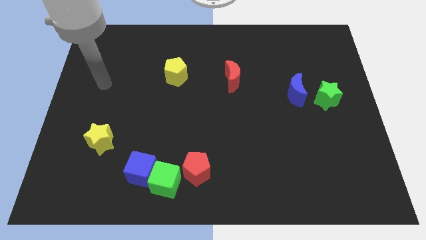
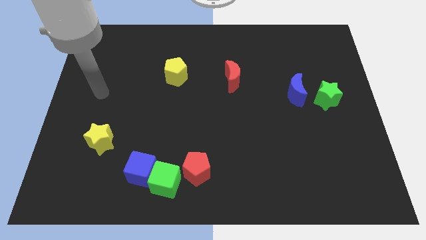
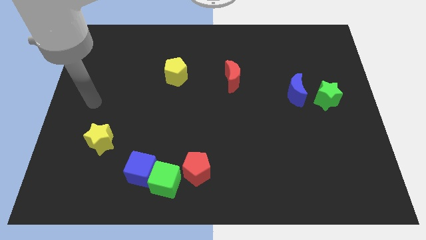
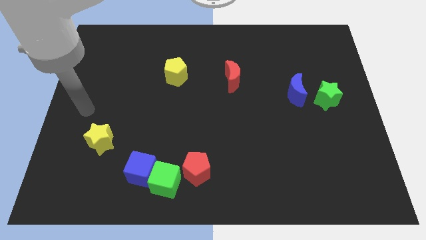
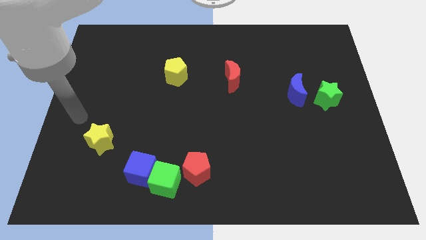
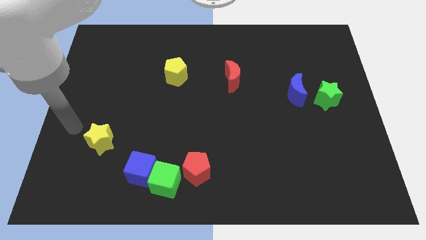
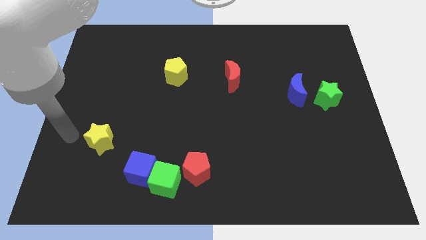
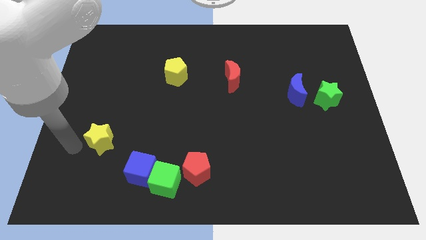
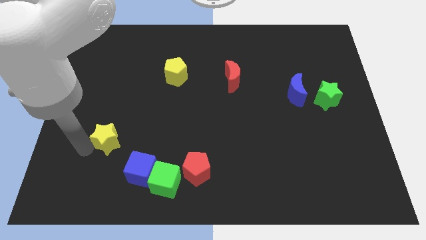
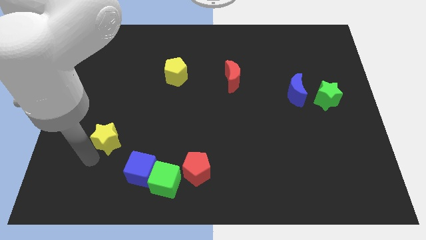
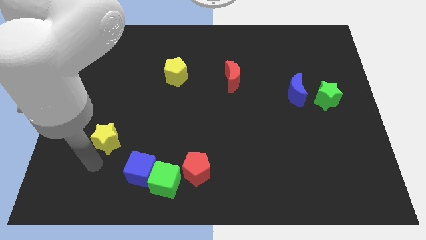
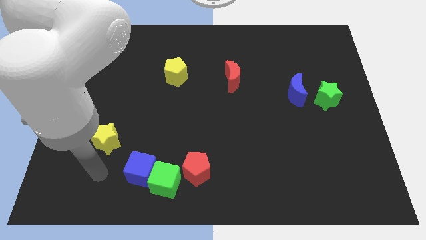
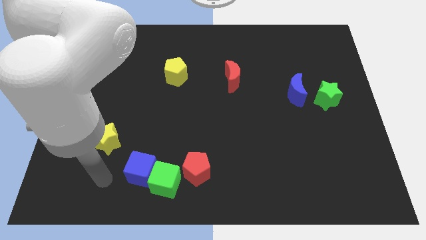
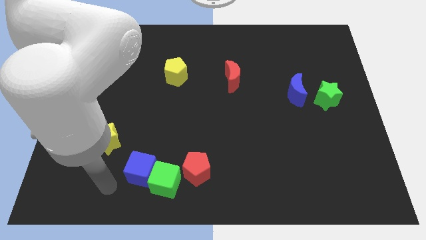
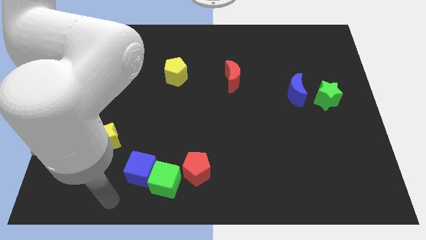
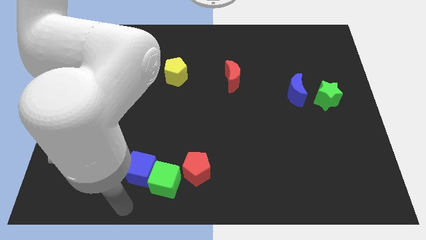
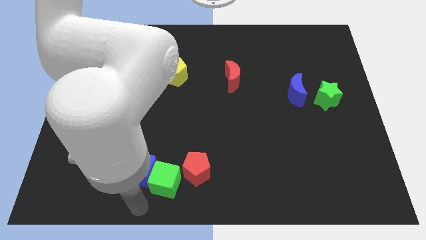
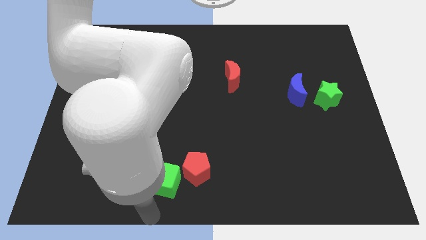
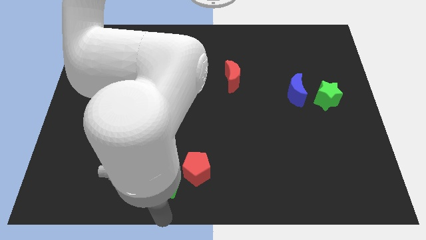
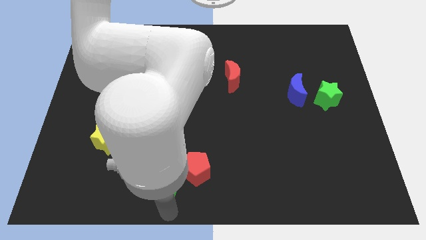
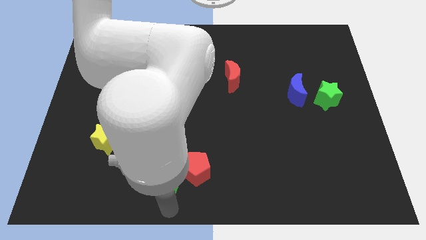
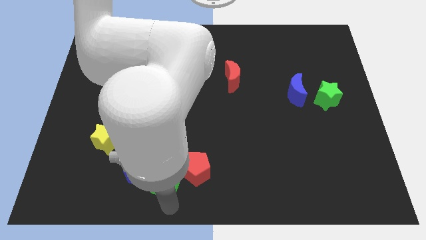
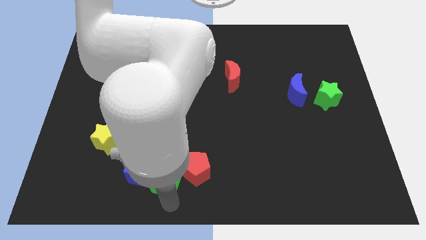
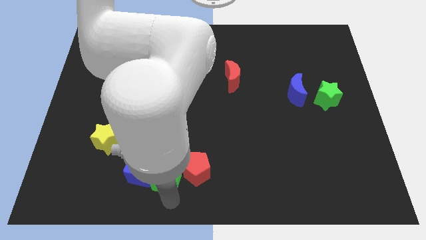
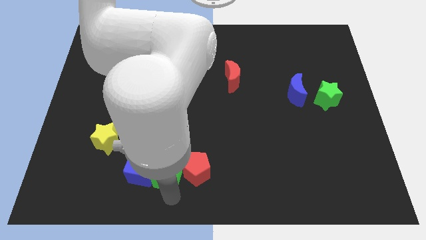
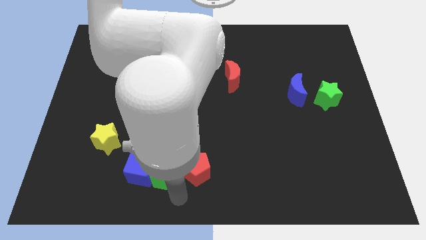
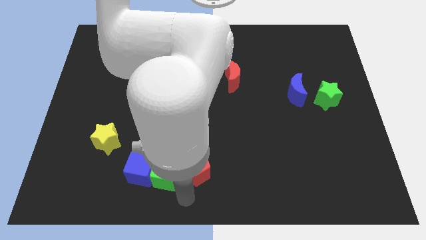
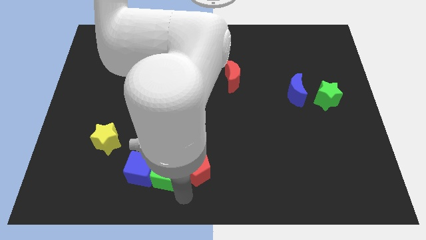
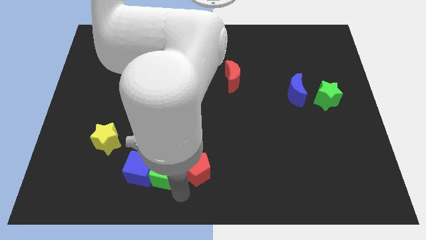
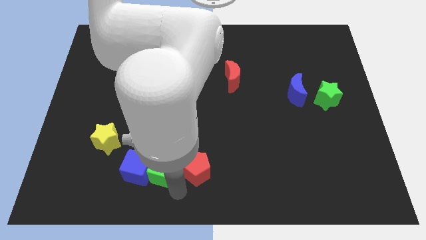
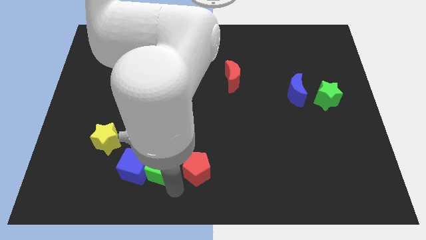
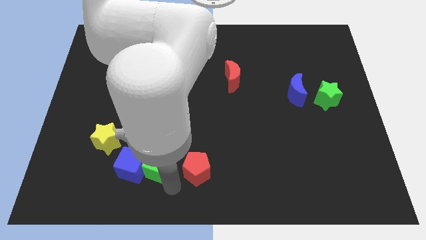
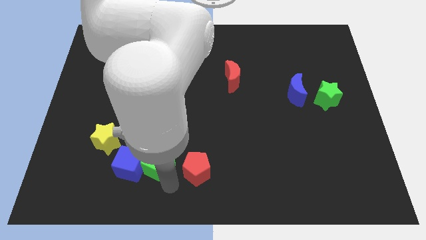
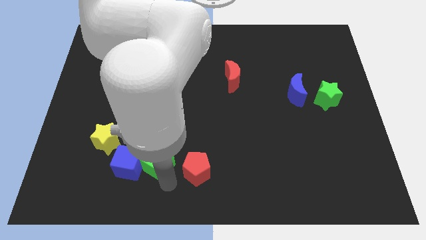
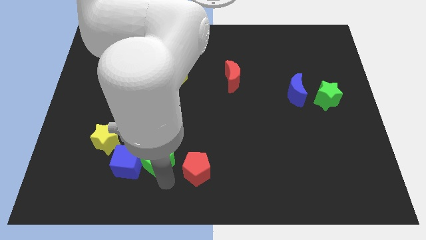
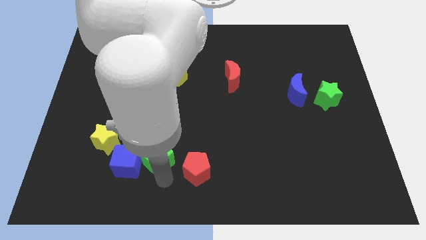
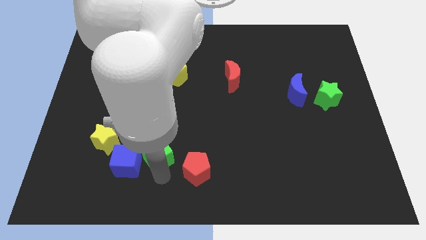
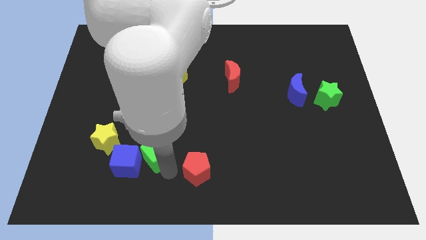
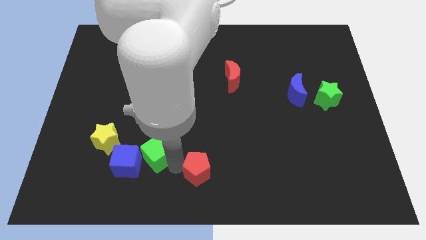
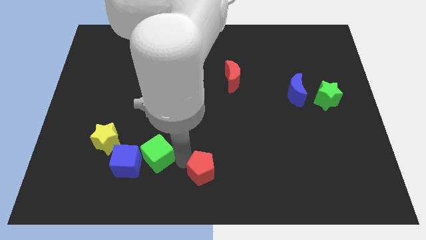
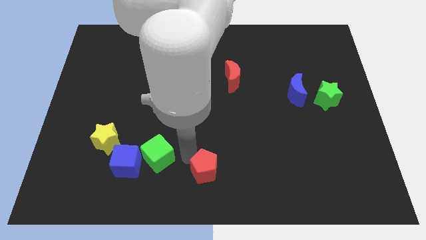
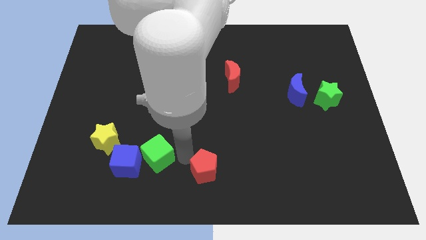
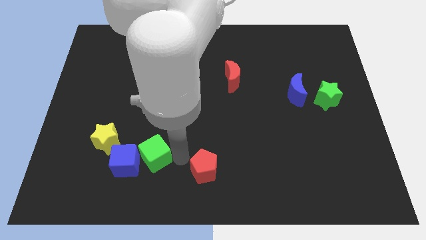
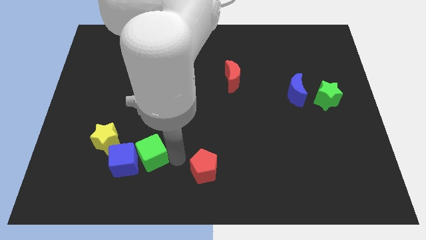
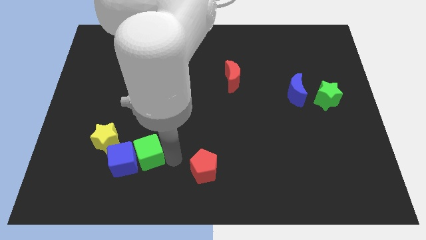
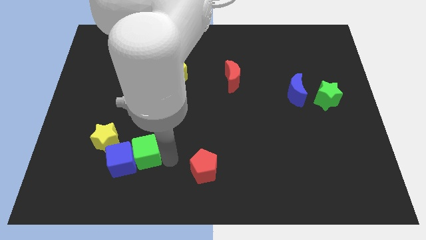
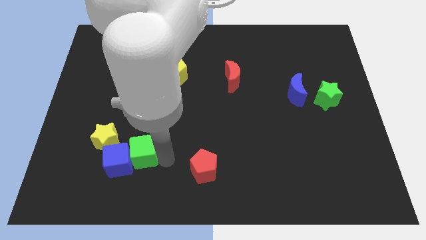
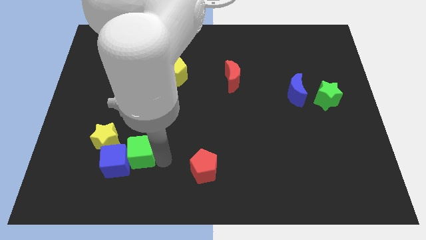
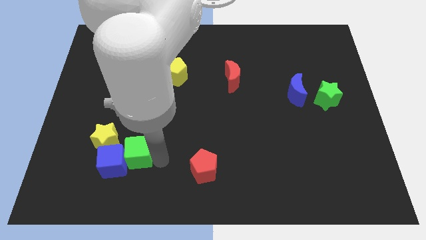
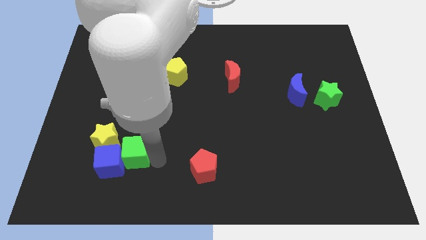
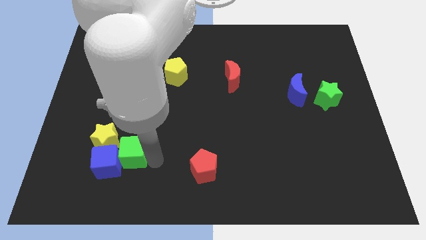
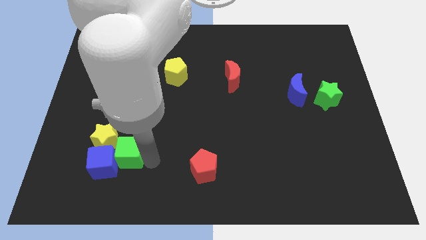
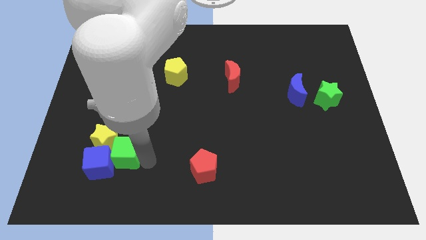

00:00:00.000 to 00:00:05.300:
push the green cube next to the yellow star

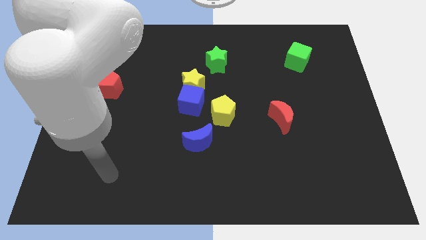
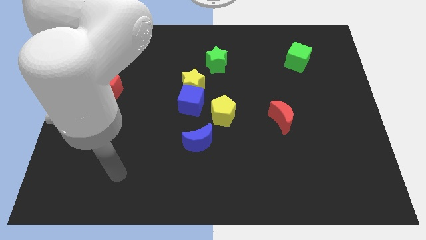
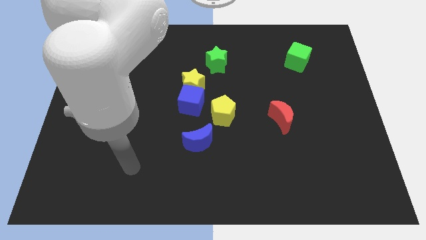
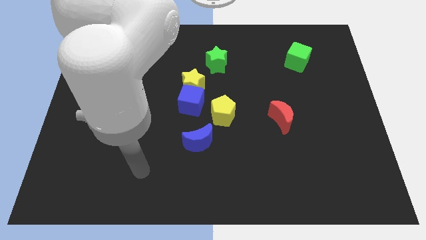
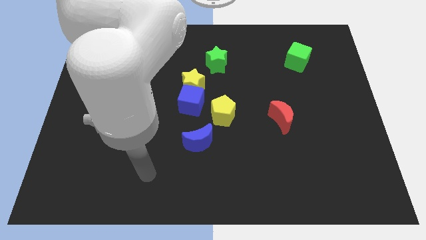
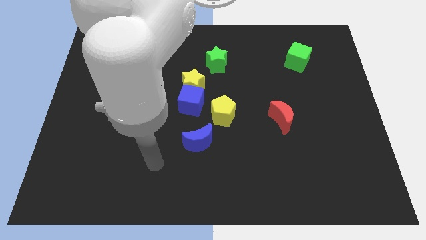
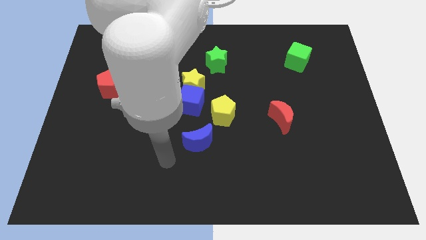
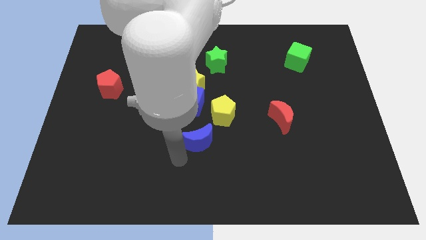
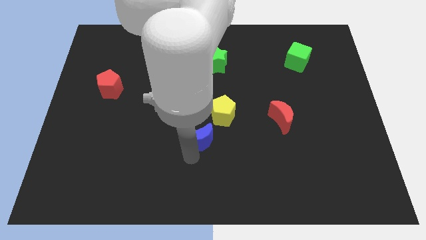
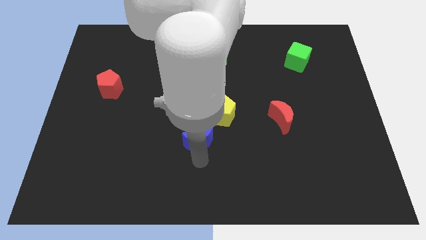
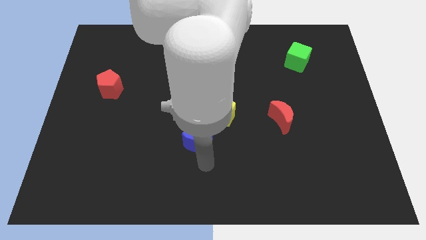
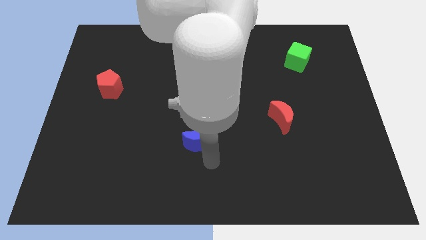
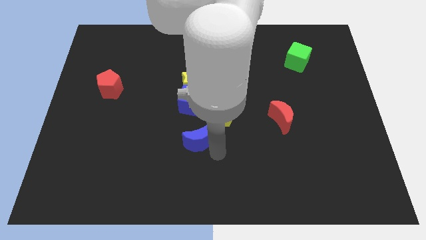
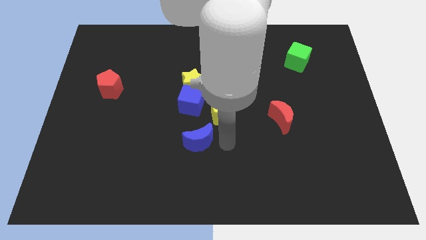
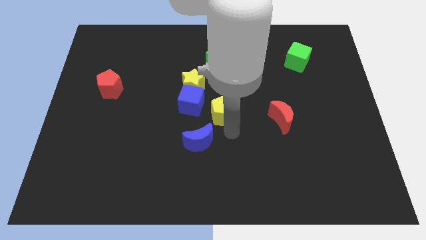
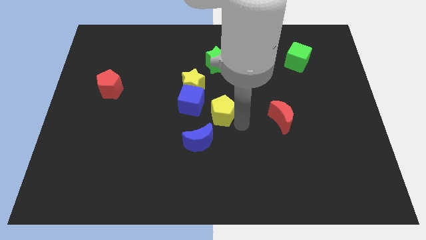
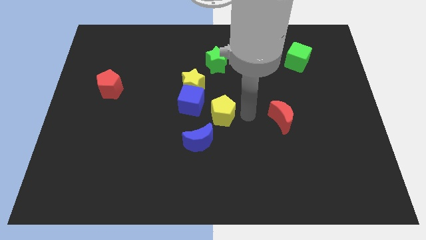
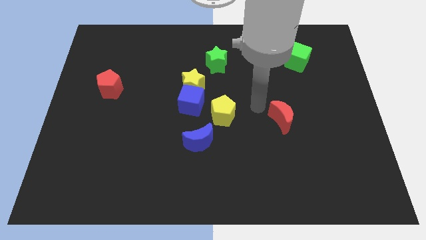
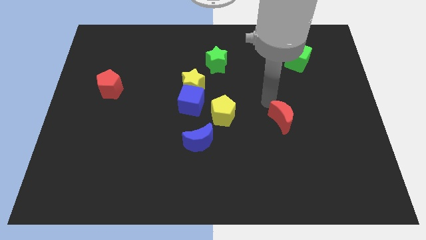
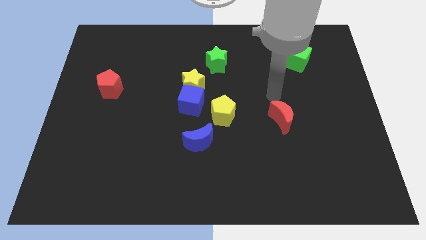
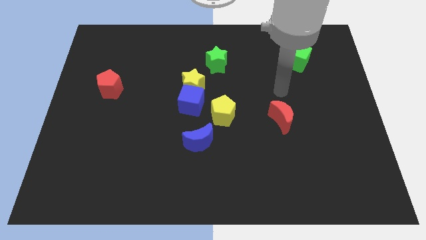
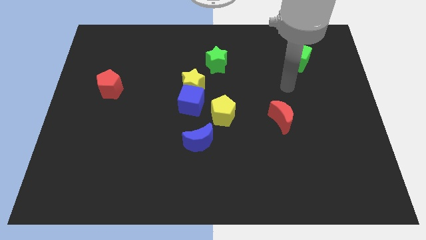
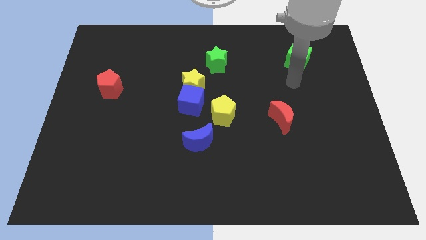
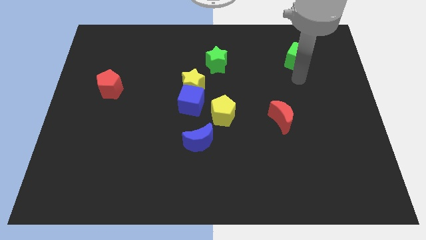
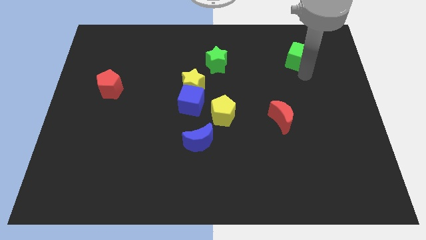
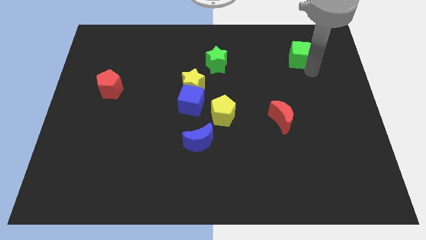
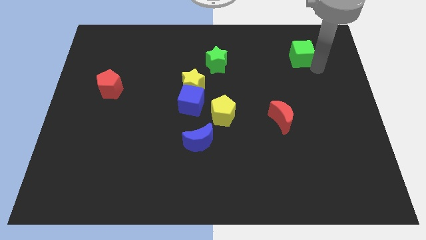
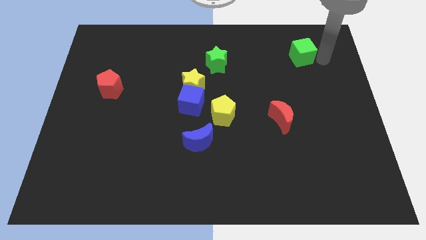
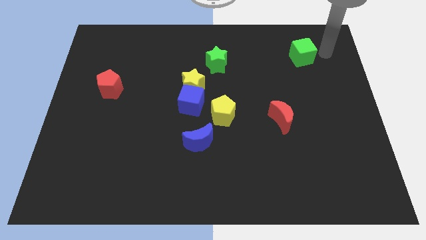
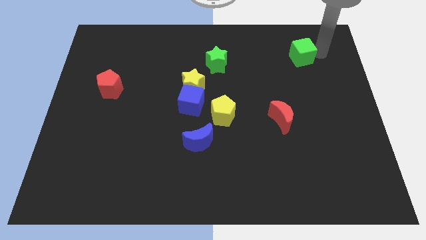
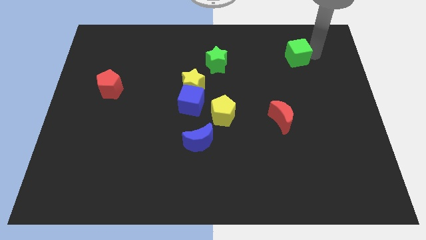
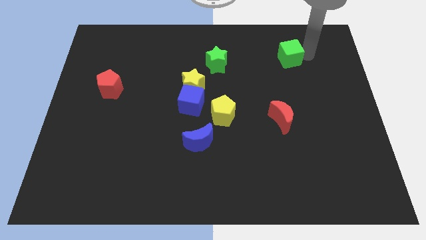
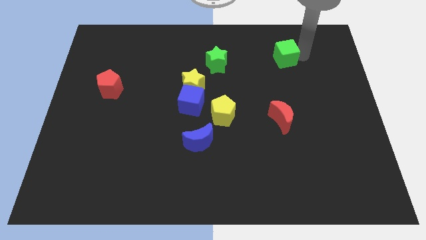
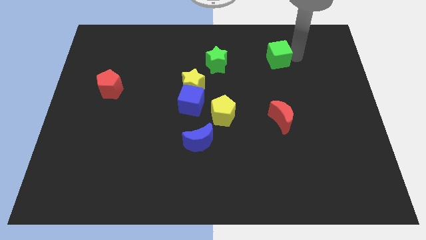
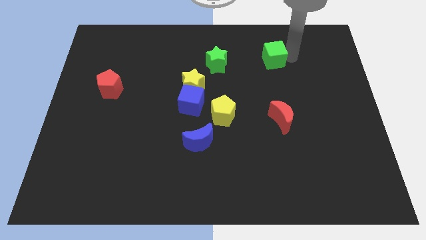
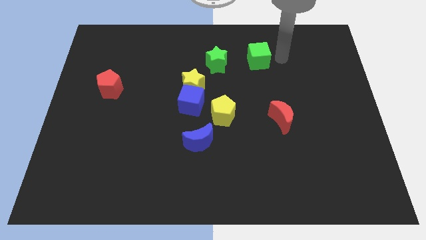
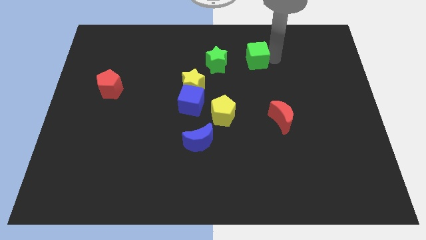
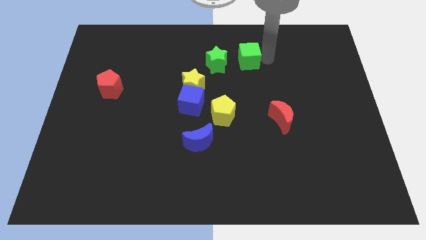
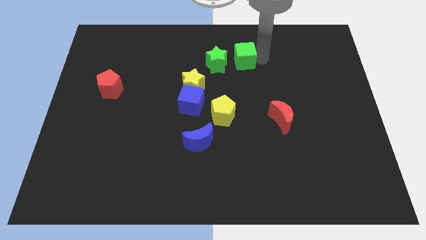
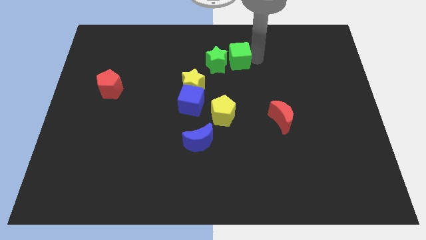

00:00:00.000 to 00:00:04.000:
slide the green cube next to the green star
